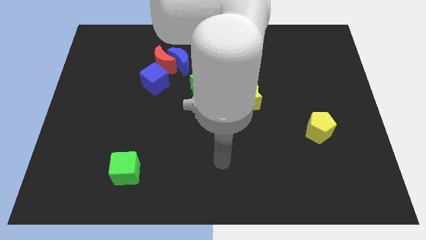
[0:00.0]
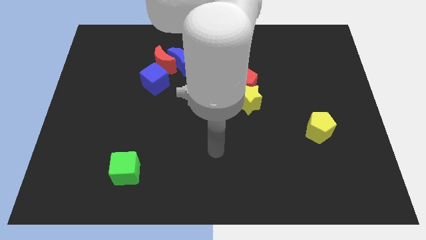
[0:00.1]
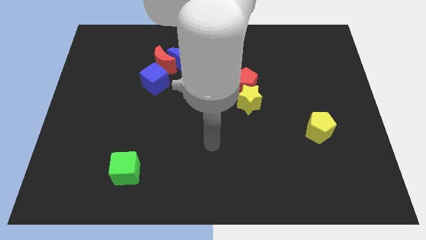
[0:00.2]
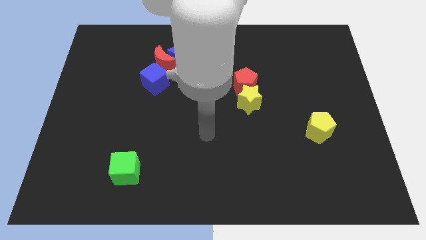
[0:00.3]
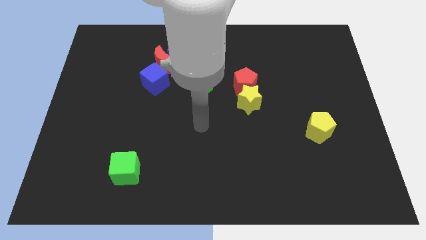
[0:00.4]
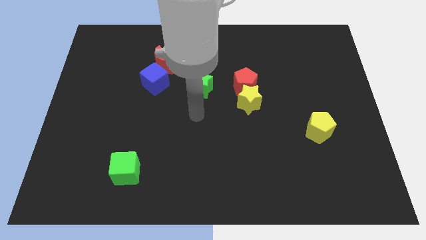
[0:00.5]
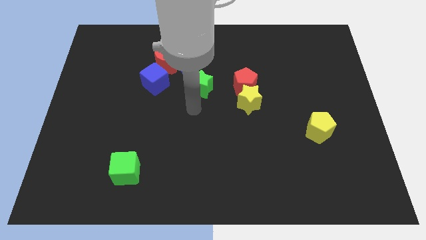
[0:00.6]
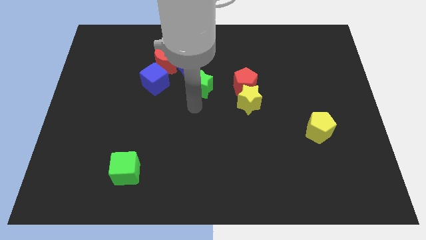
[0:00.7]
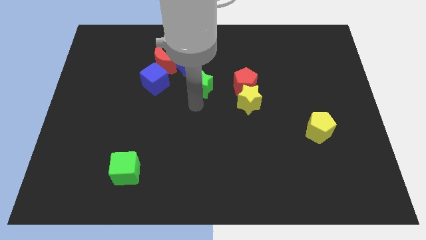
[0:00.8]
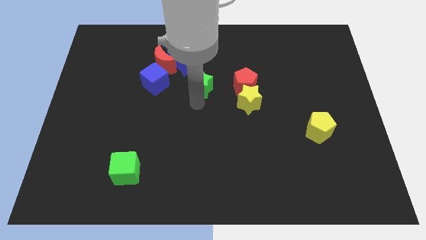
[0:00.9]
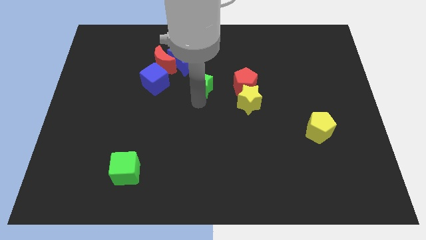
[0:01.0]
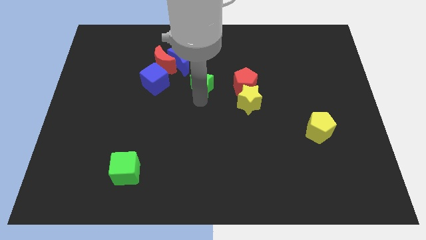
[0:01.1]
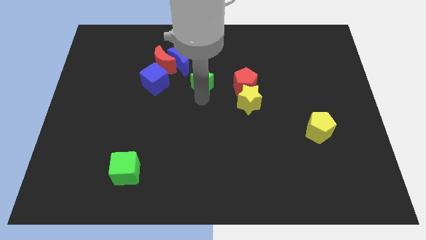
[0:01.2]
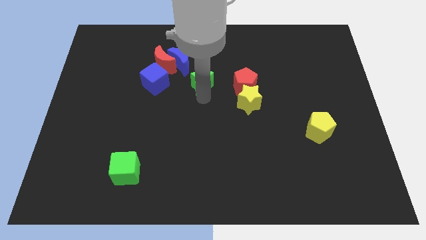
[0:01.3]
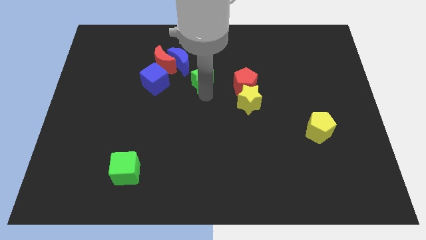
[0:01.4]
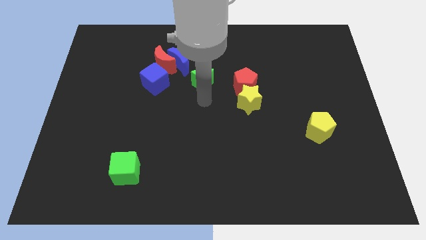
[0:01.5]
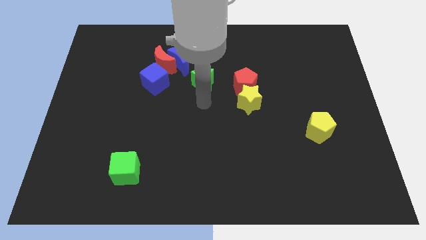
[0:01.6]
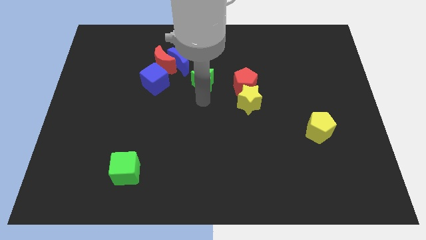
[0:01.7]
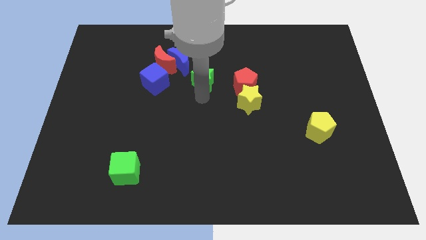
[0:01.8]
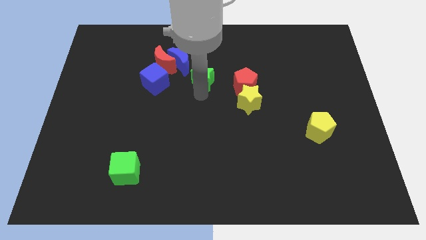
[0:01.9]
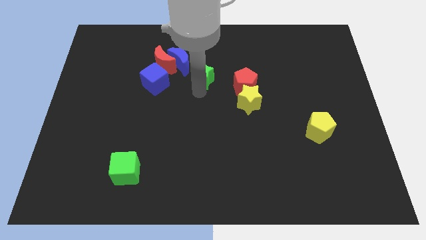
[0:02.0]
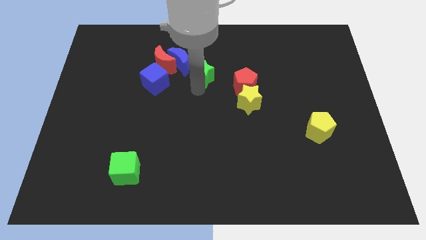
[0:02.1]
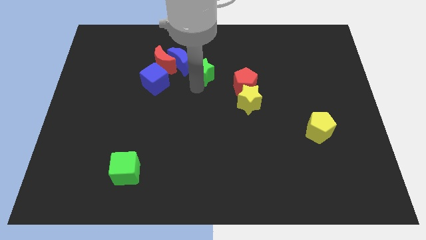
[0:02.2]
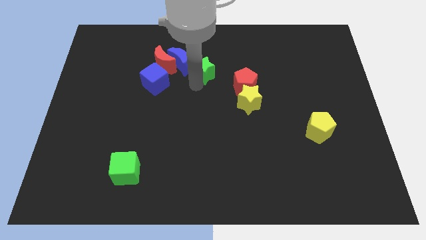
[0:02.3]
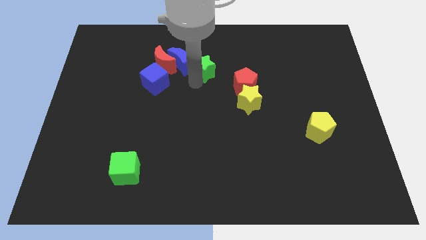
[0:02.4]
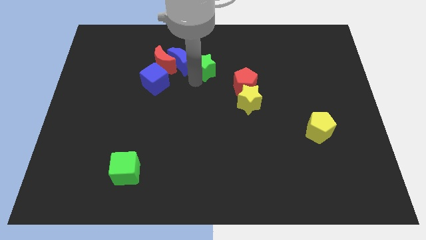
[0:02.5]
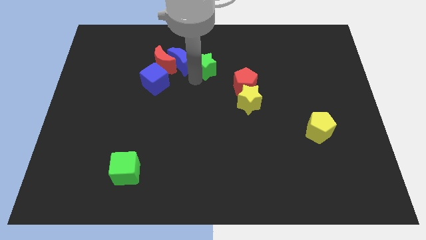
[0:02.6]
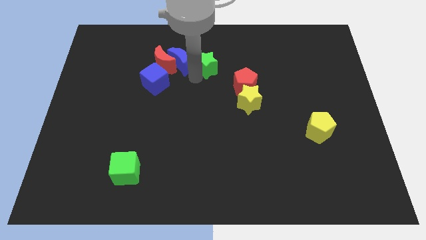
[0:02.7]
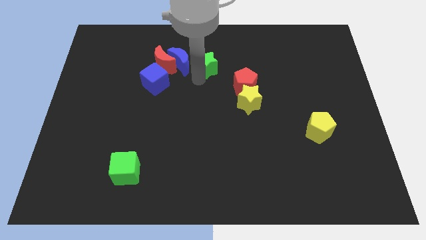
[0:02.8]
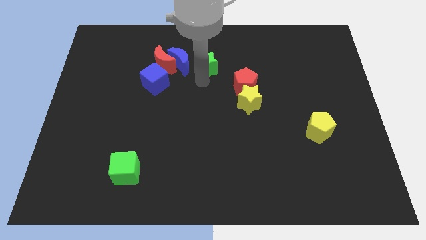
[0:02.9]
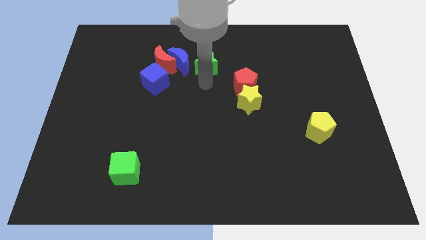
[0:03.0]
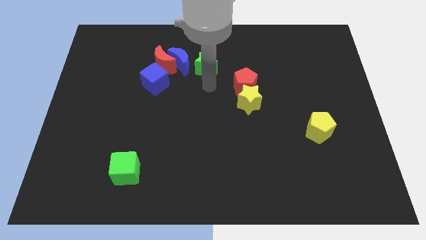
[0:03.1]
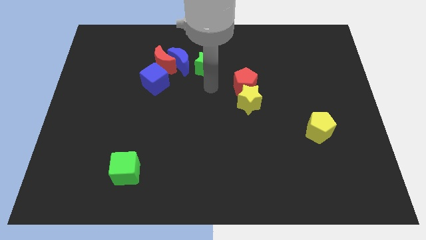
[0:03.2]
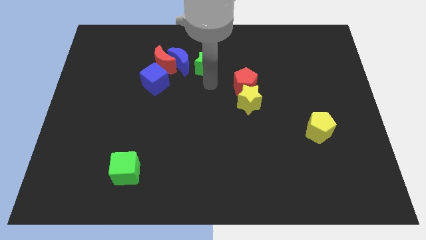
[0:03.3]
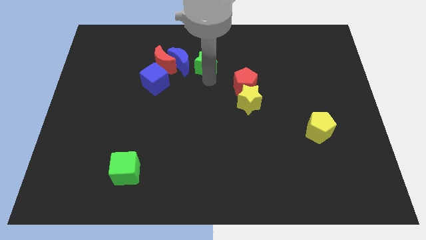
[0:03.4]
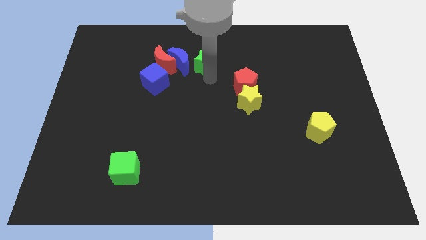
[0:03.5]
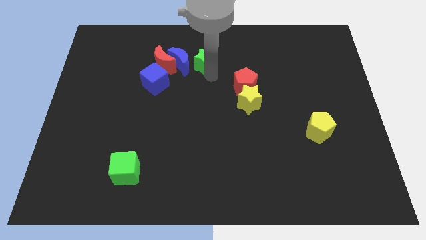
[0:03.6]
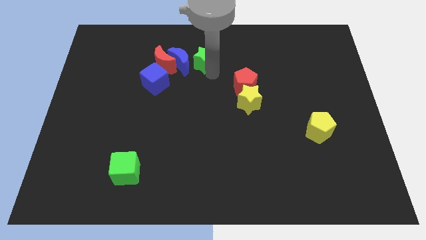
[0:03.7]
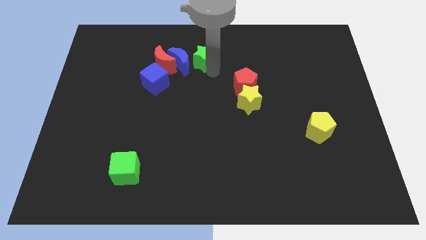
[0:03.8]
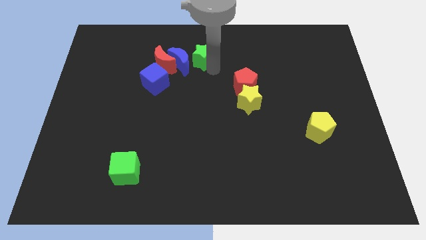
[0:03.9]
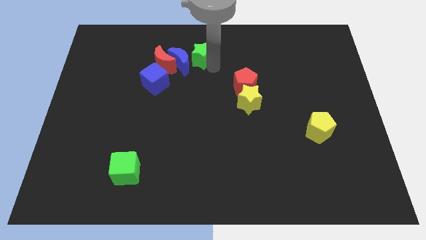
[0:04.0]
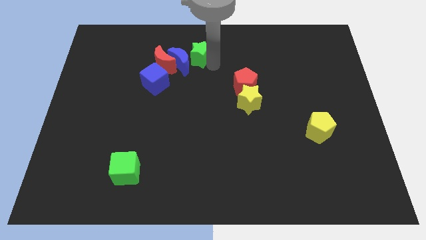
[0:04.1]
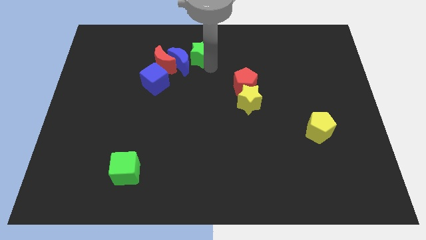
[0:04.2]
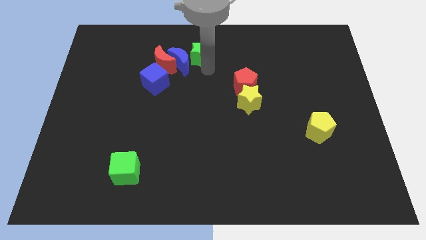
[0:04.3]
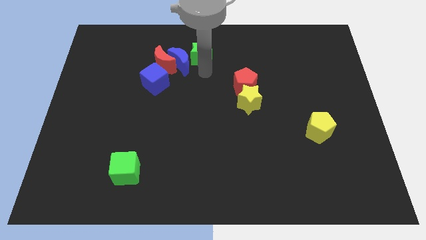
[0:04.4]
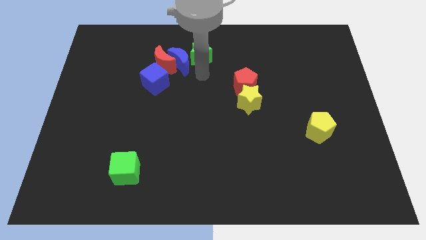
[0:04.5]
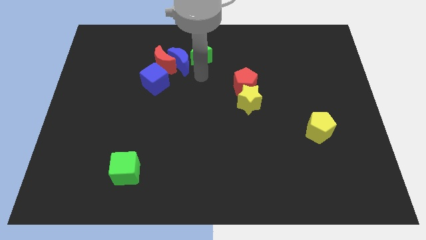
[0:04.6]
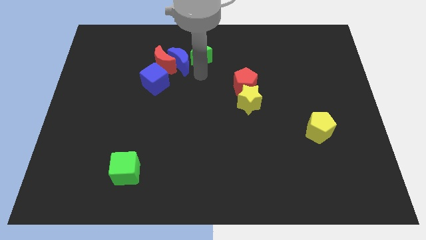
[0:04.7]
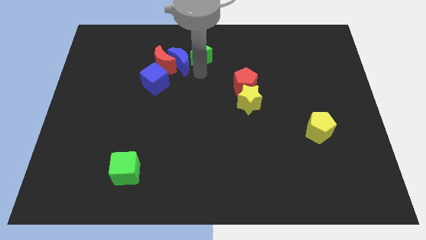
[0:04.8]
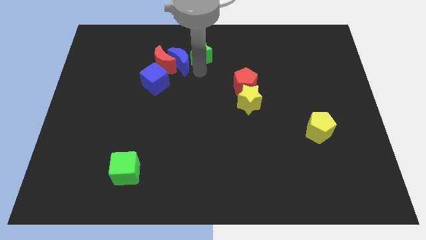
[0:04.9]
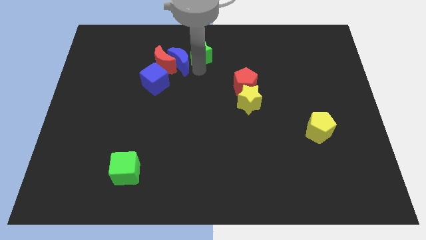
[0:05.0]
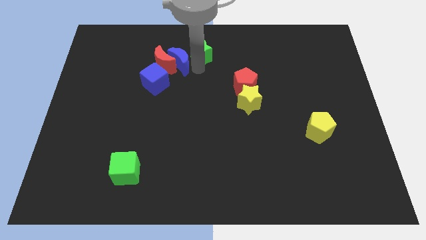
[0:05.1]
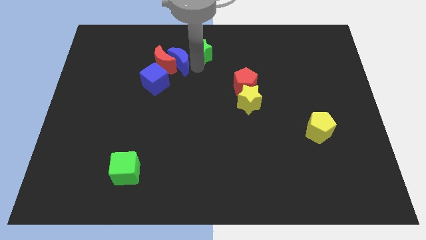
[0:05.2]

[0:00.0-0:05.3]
slide the green star to the top side

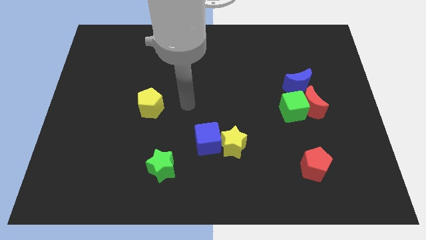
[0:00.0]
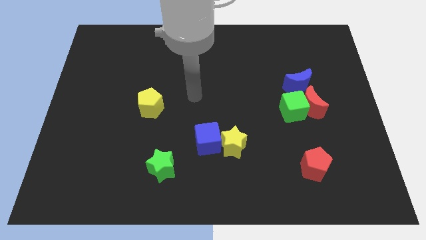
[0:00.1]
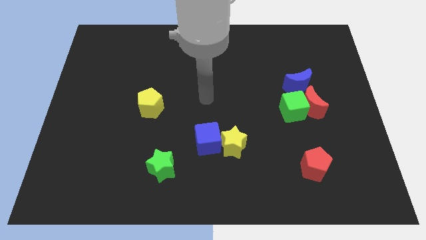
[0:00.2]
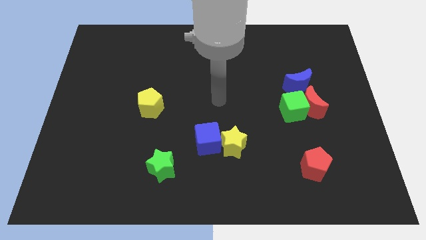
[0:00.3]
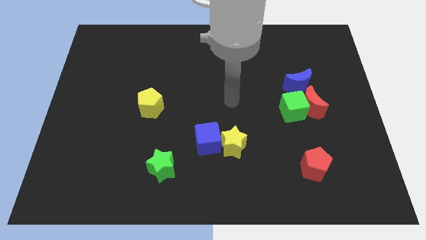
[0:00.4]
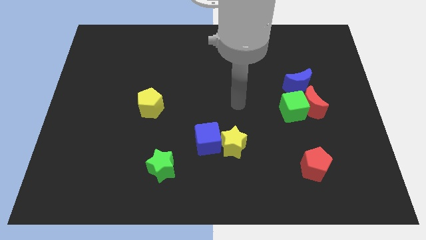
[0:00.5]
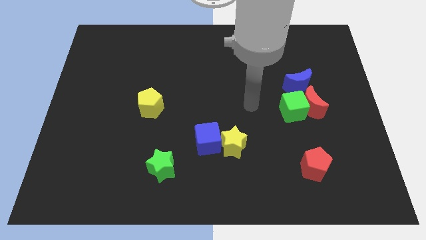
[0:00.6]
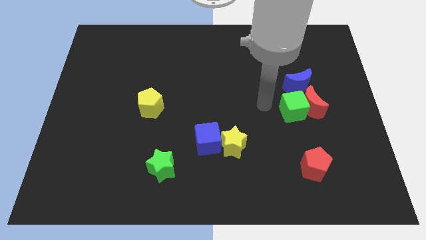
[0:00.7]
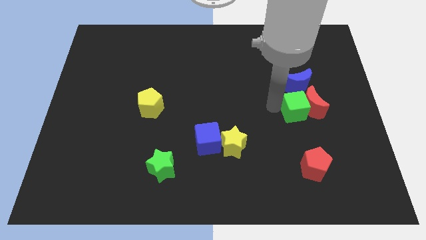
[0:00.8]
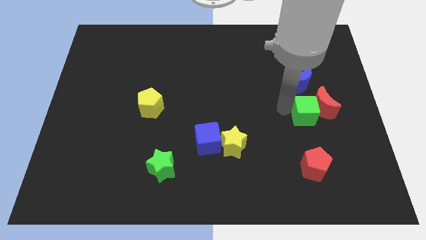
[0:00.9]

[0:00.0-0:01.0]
move the red moon to the right side
